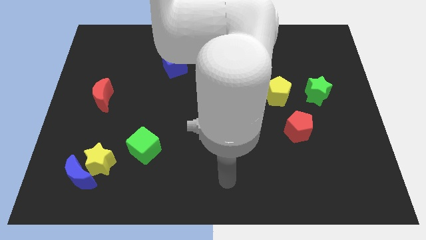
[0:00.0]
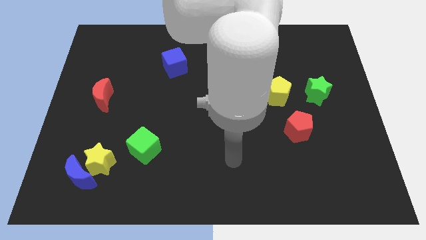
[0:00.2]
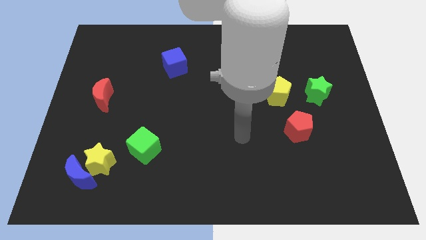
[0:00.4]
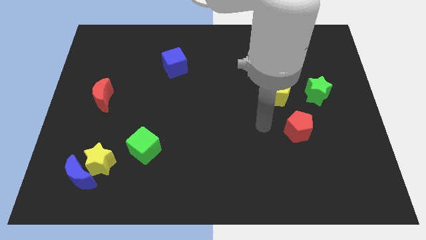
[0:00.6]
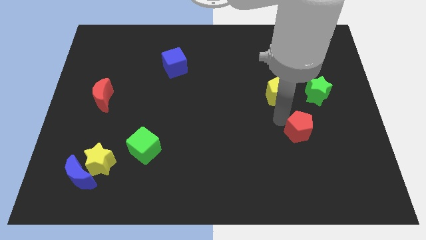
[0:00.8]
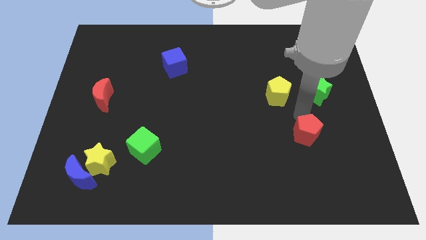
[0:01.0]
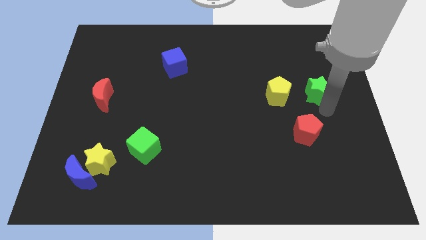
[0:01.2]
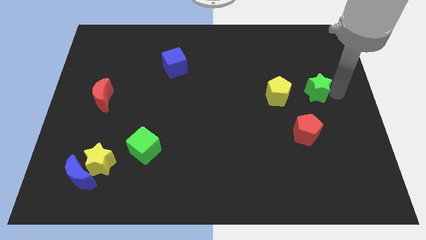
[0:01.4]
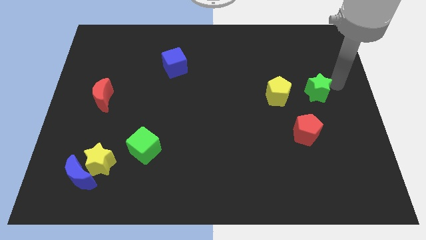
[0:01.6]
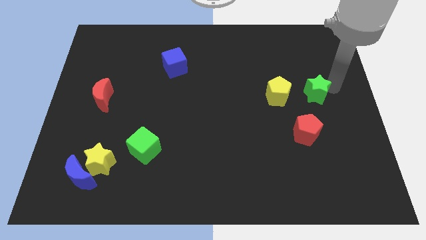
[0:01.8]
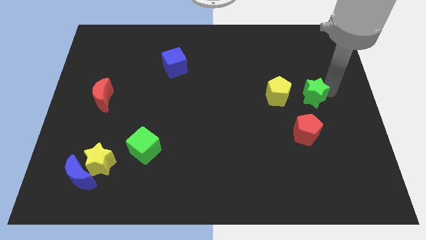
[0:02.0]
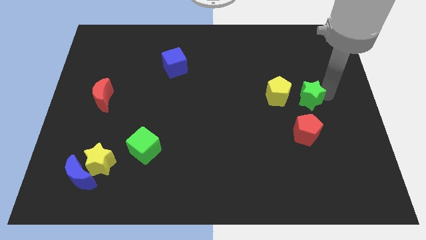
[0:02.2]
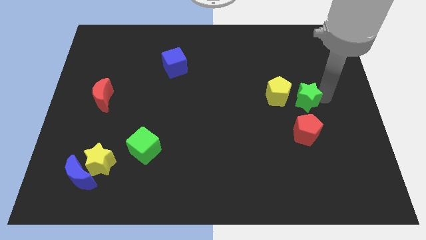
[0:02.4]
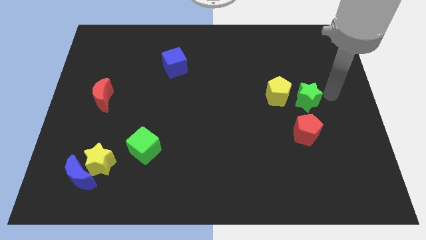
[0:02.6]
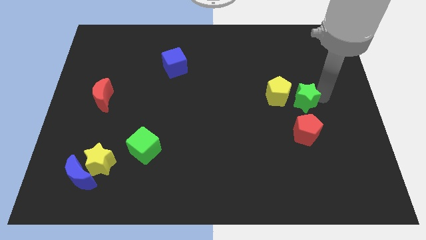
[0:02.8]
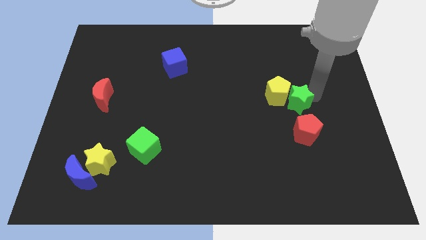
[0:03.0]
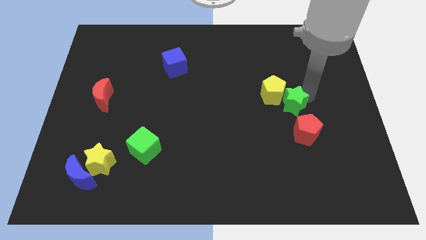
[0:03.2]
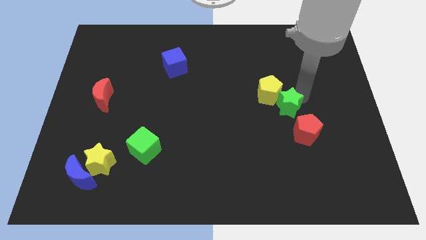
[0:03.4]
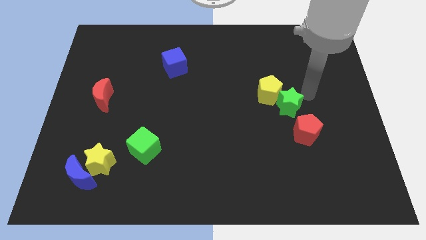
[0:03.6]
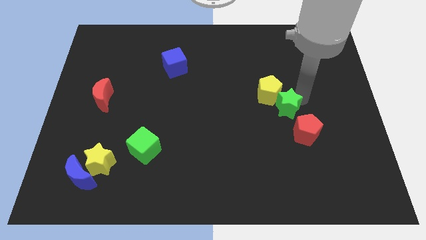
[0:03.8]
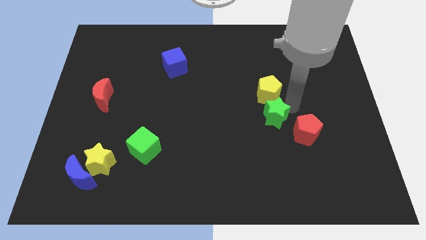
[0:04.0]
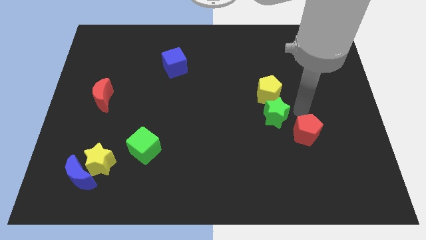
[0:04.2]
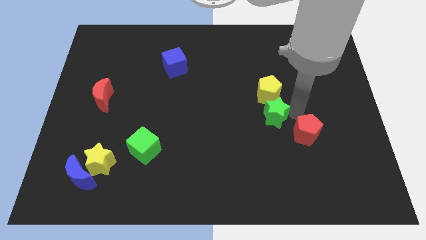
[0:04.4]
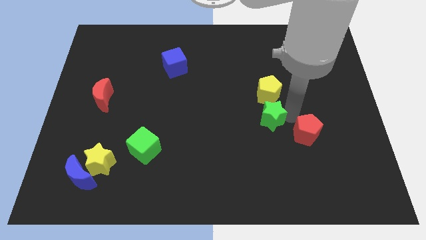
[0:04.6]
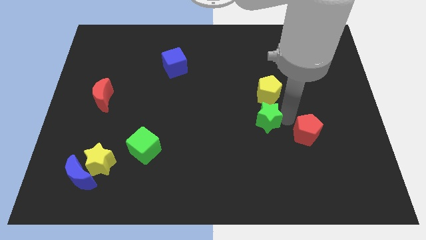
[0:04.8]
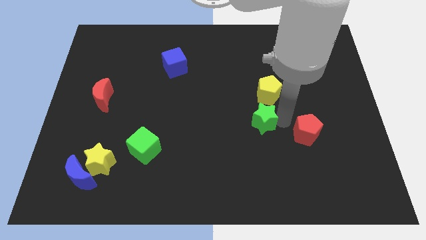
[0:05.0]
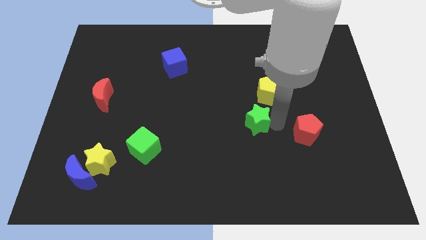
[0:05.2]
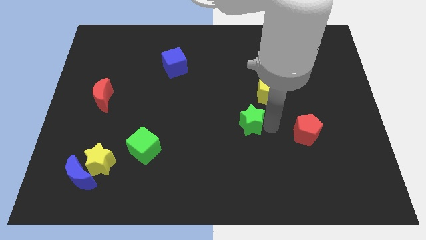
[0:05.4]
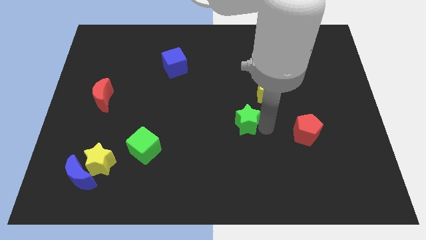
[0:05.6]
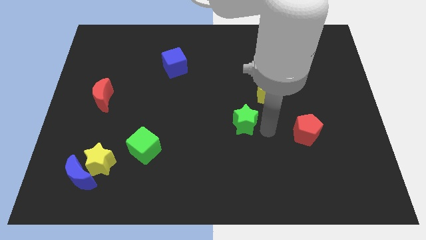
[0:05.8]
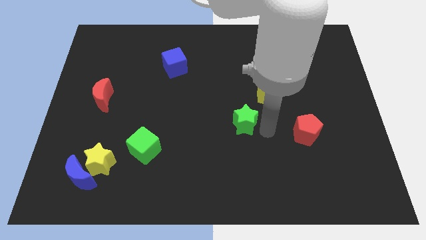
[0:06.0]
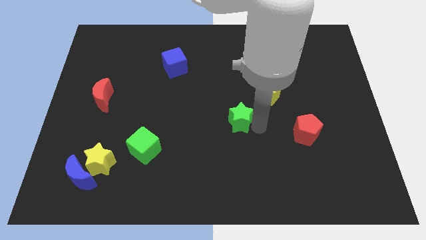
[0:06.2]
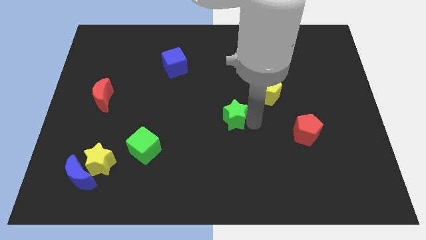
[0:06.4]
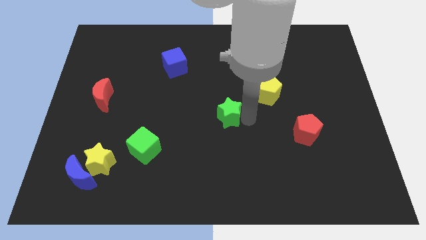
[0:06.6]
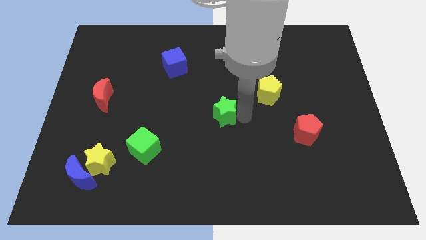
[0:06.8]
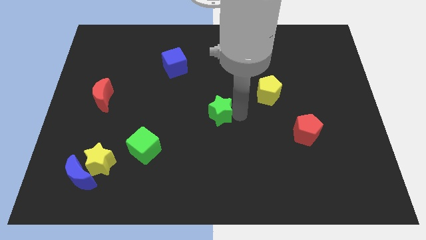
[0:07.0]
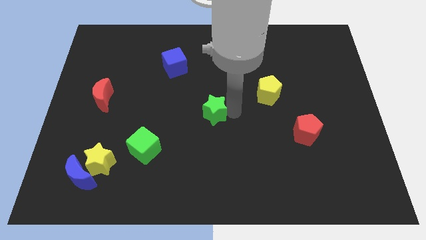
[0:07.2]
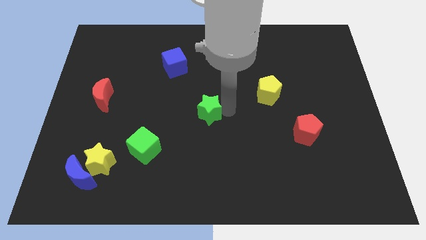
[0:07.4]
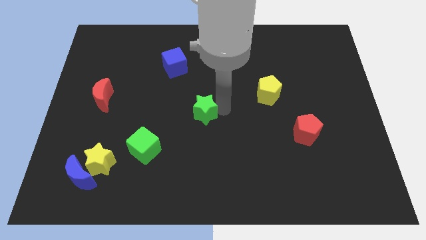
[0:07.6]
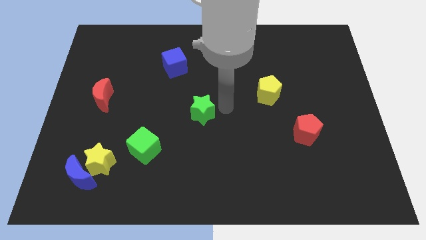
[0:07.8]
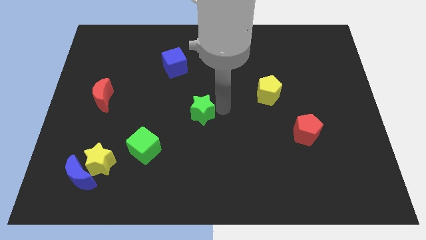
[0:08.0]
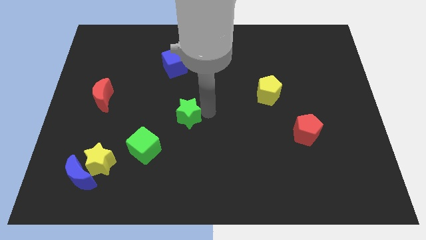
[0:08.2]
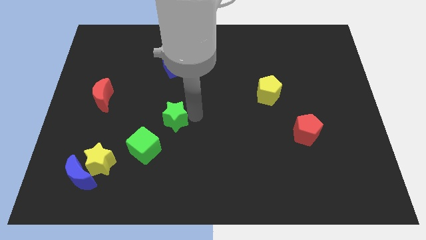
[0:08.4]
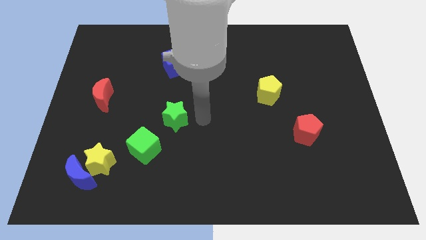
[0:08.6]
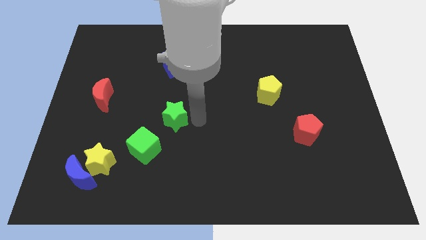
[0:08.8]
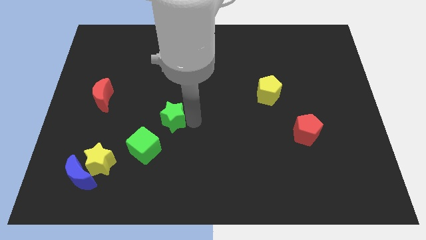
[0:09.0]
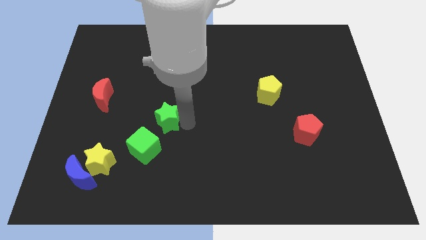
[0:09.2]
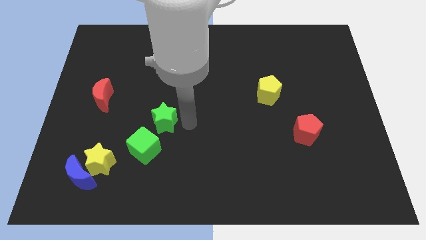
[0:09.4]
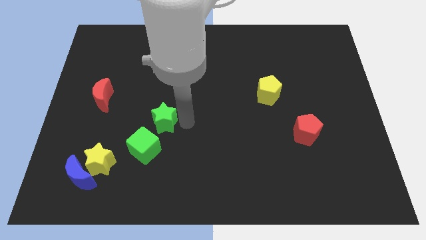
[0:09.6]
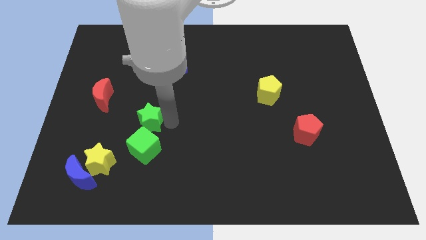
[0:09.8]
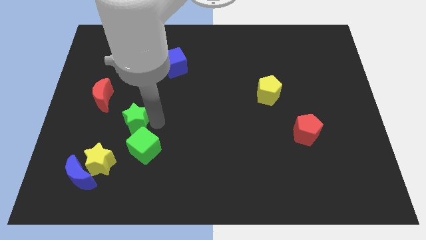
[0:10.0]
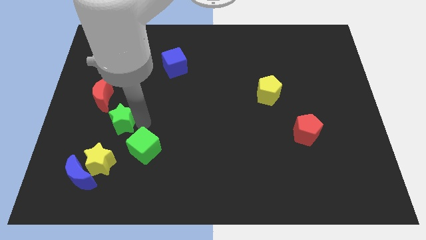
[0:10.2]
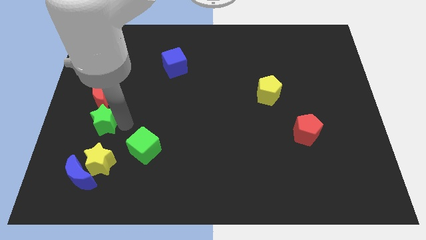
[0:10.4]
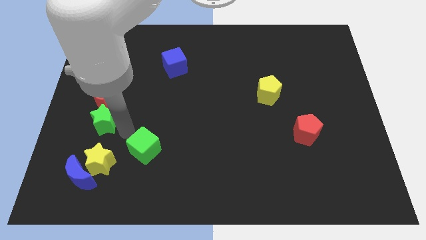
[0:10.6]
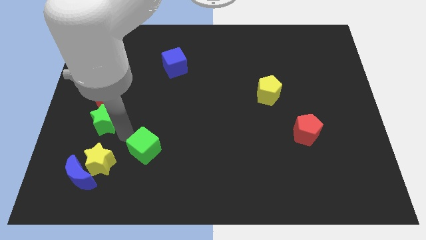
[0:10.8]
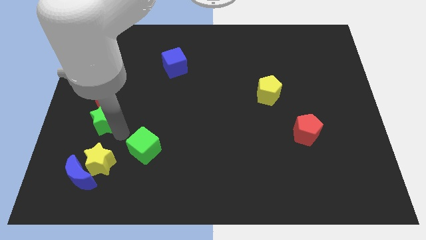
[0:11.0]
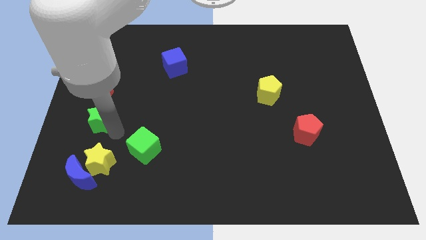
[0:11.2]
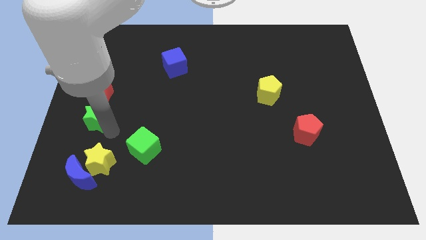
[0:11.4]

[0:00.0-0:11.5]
push the green star to the left side

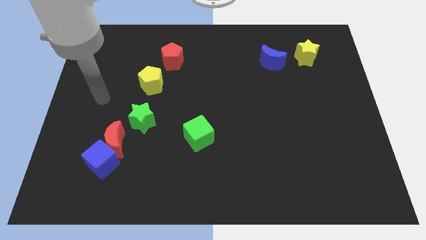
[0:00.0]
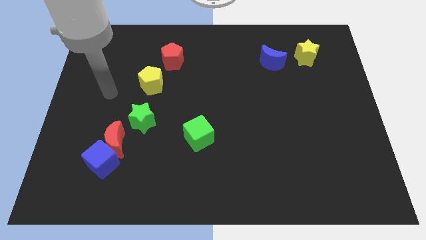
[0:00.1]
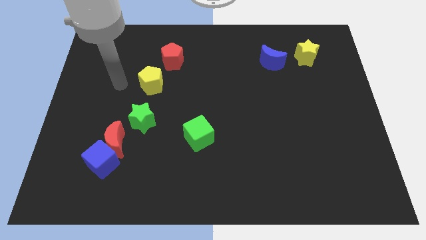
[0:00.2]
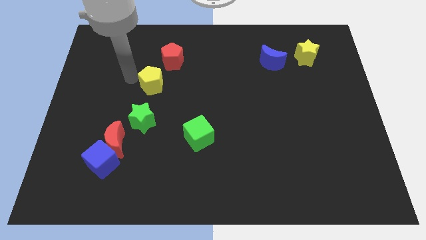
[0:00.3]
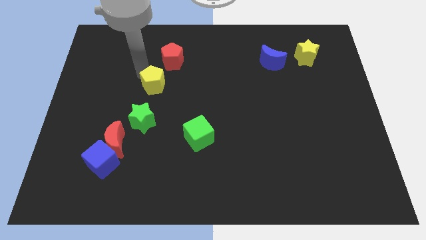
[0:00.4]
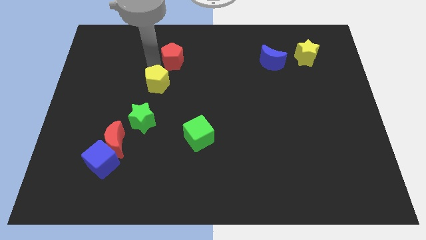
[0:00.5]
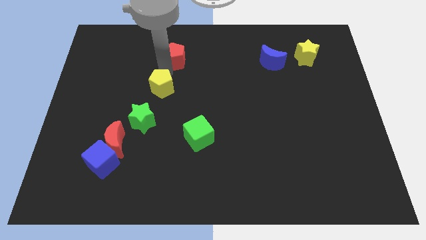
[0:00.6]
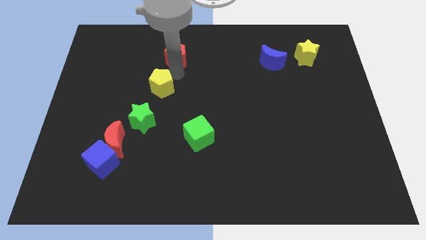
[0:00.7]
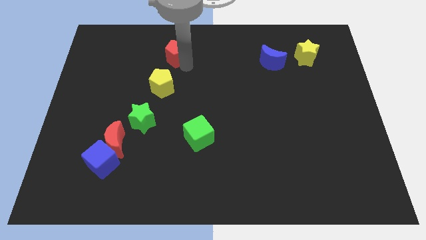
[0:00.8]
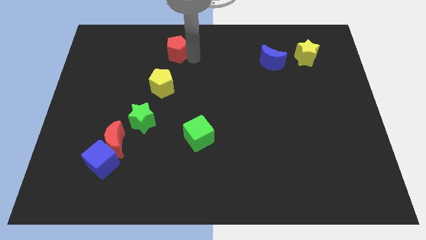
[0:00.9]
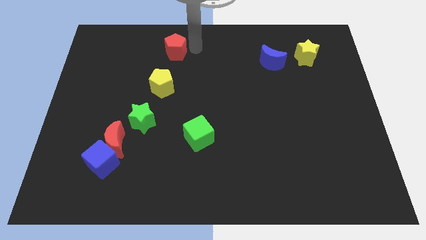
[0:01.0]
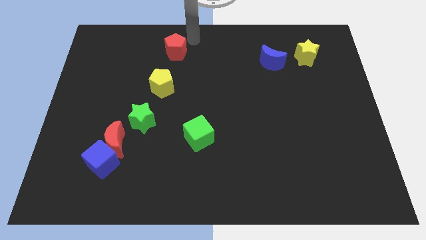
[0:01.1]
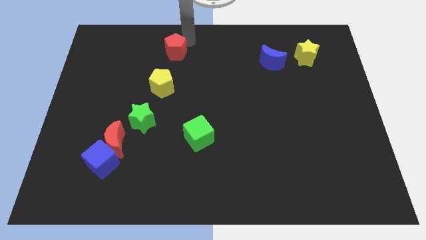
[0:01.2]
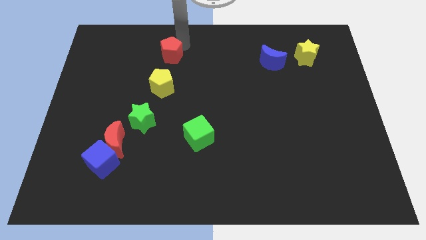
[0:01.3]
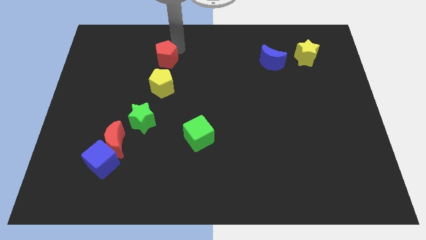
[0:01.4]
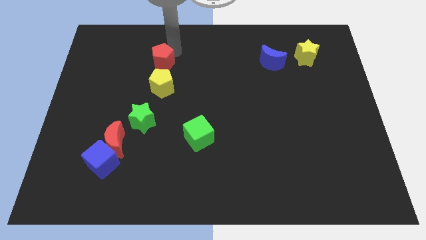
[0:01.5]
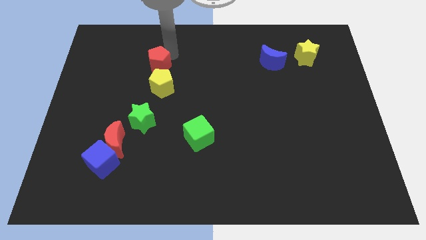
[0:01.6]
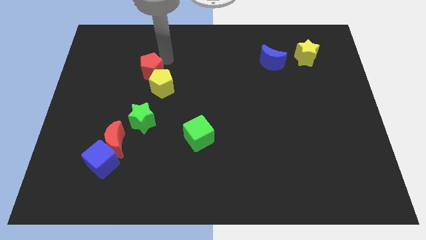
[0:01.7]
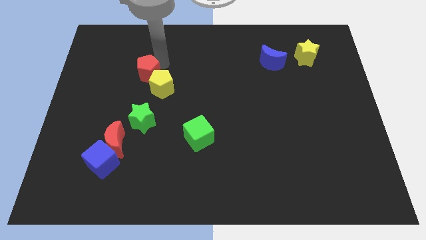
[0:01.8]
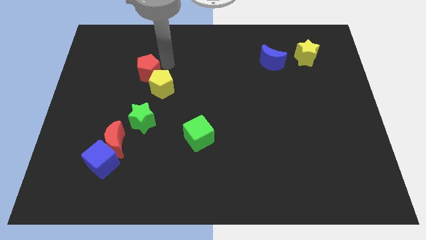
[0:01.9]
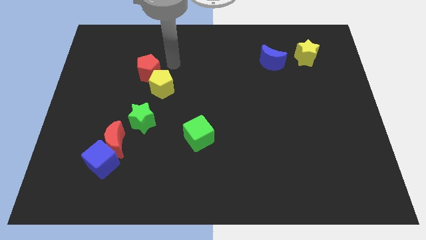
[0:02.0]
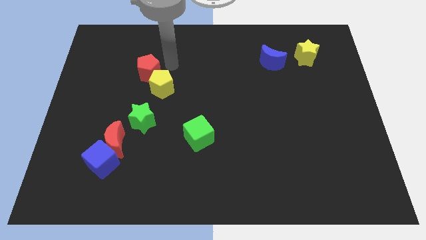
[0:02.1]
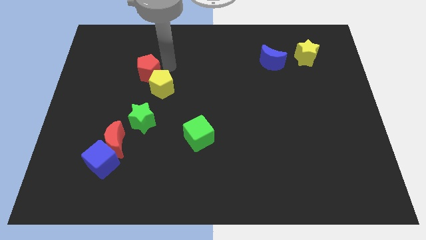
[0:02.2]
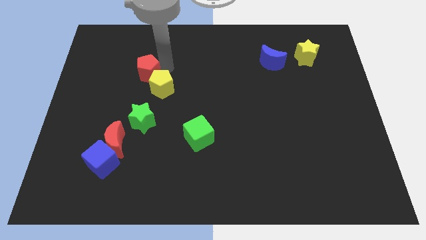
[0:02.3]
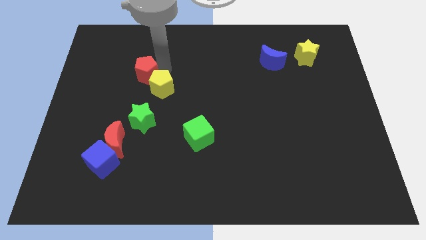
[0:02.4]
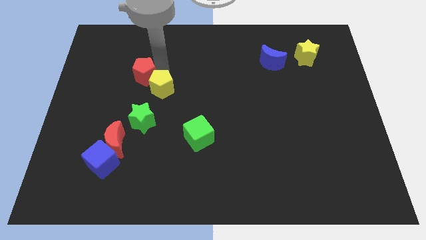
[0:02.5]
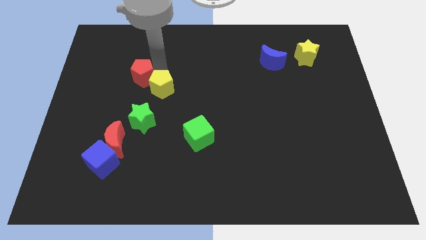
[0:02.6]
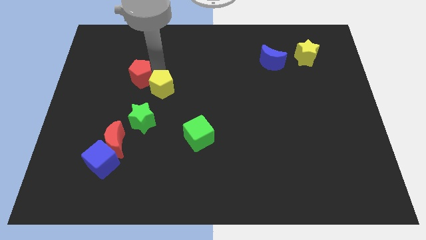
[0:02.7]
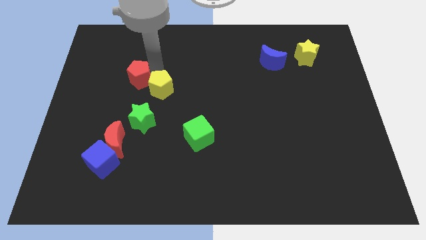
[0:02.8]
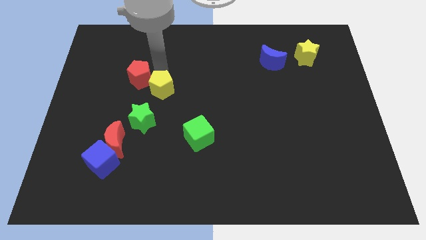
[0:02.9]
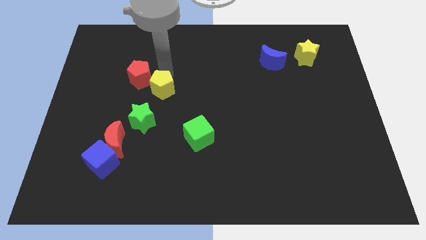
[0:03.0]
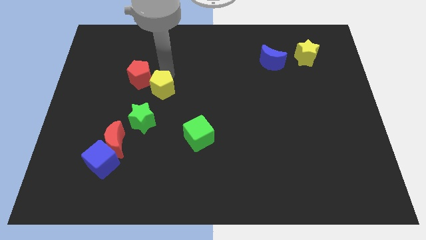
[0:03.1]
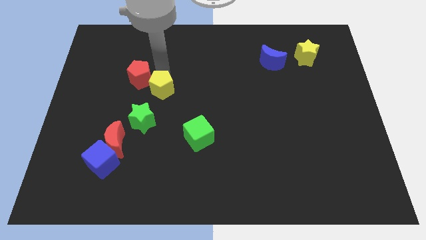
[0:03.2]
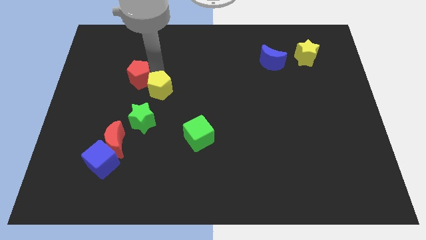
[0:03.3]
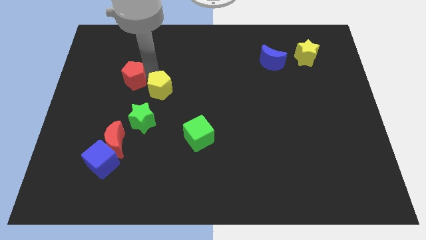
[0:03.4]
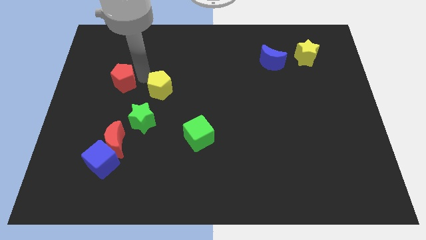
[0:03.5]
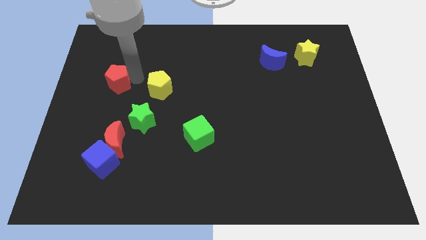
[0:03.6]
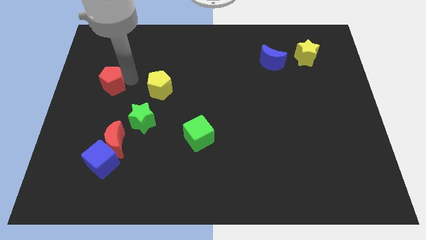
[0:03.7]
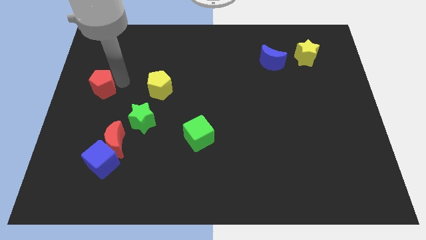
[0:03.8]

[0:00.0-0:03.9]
slide the red pentagon to the center left
